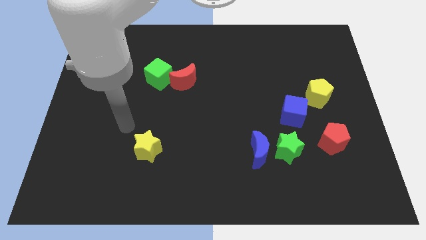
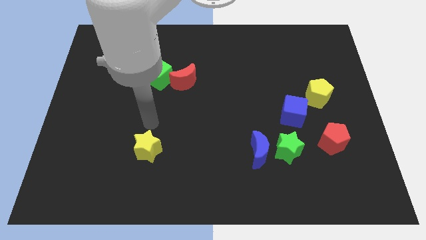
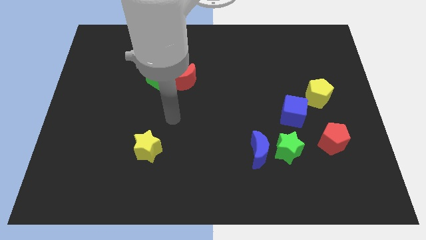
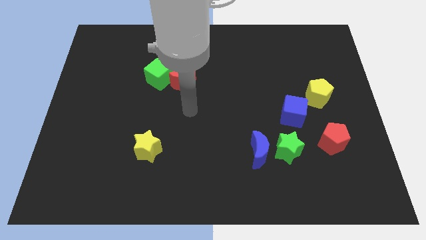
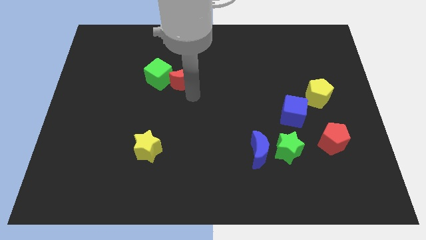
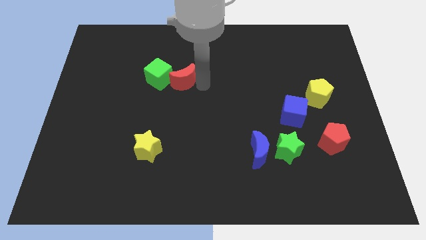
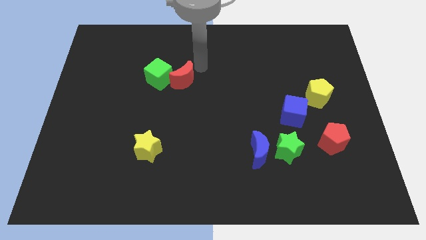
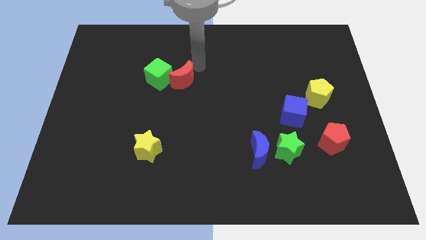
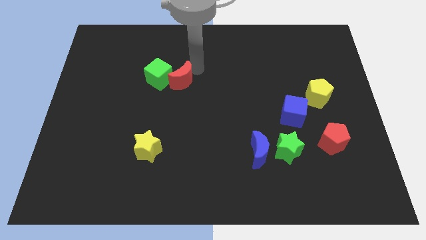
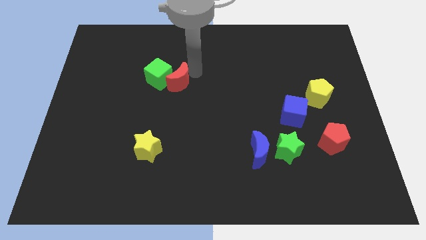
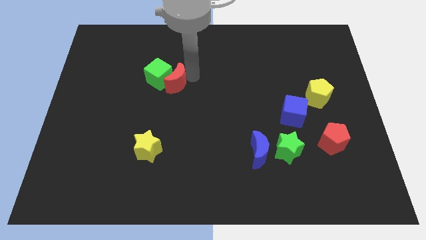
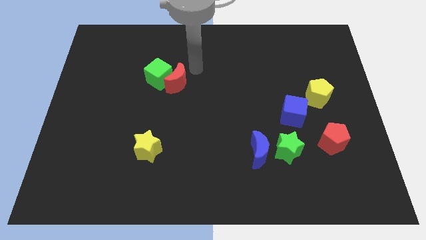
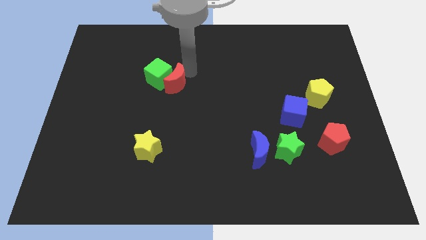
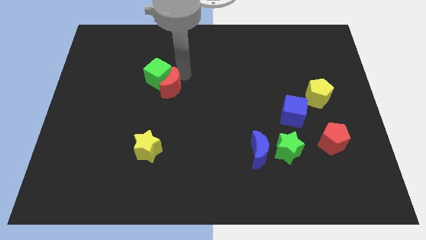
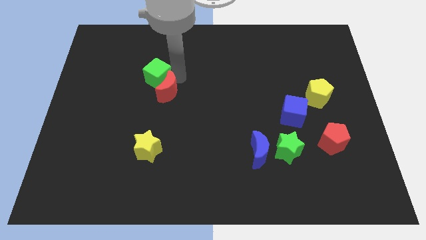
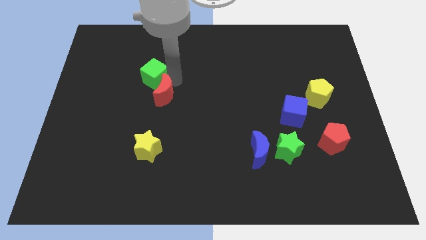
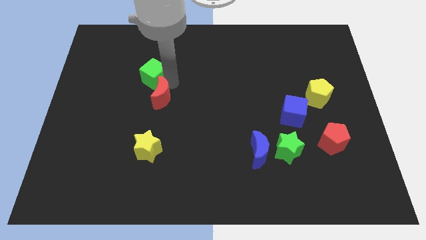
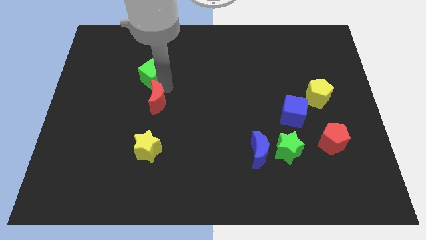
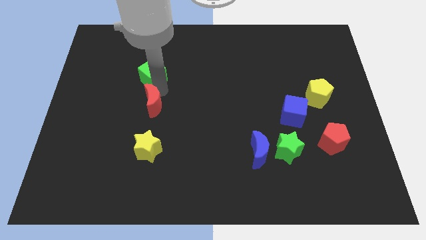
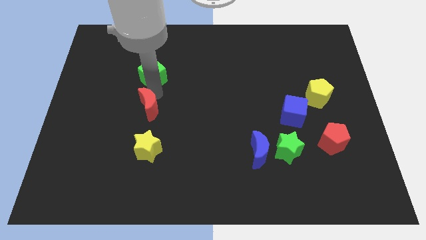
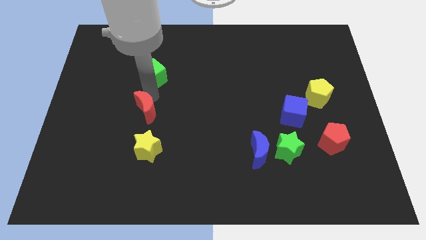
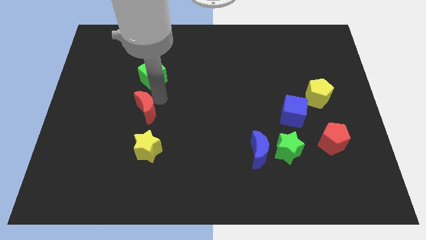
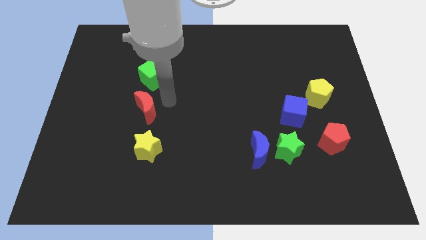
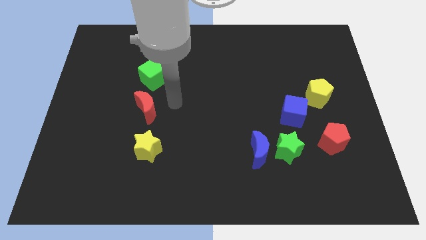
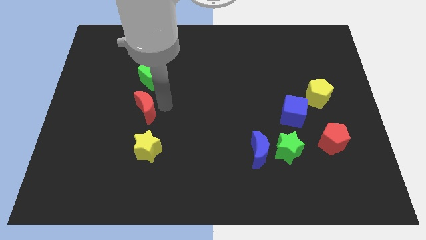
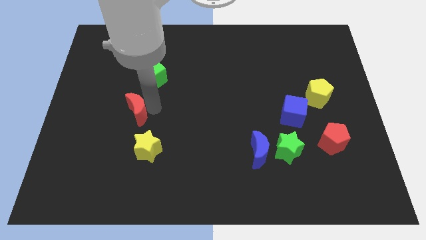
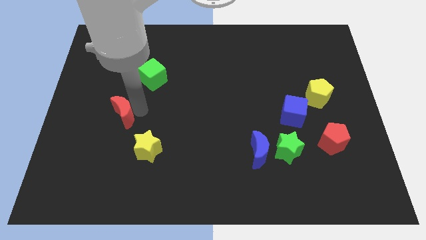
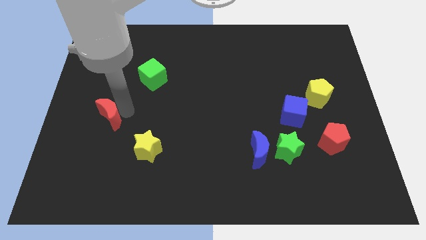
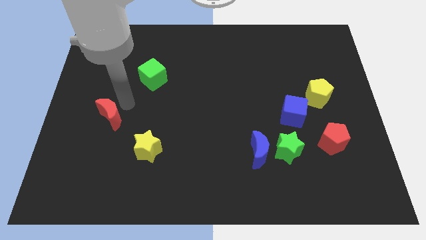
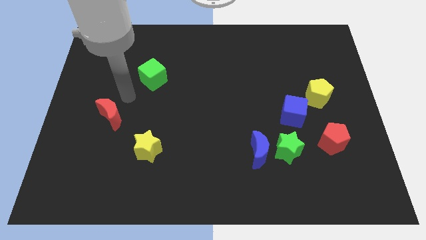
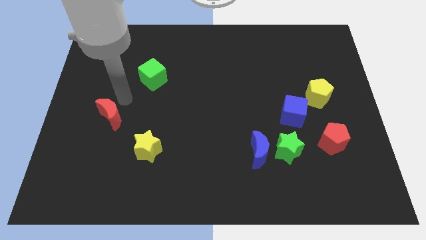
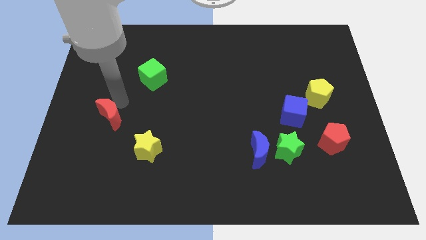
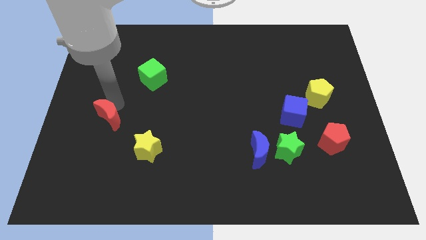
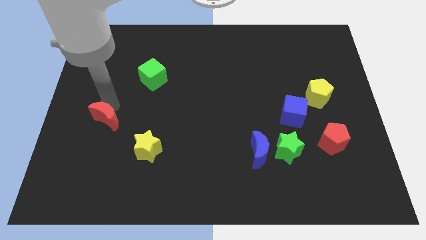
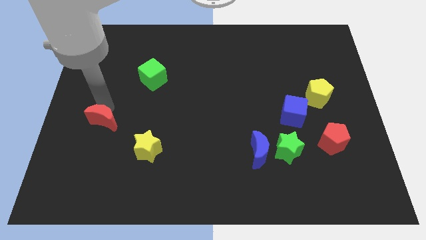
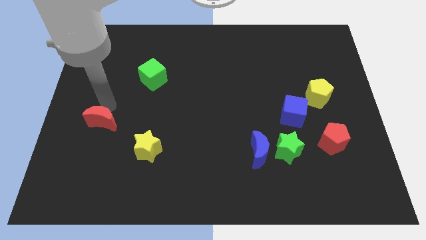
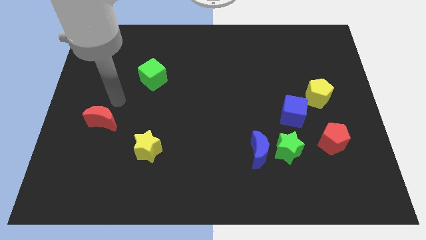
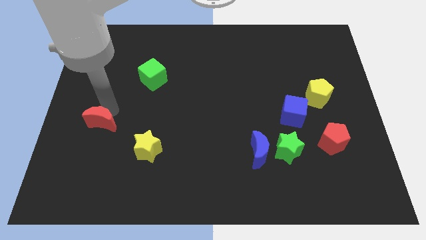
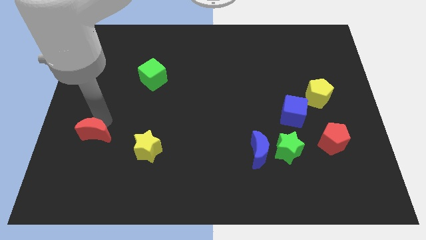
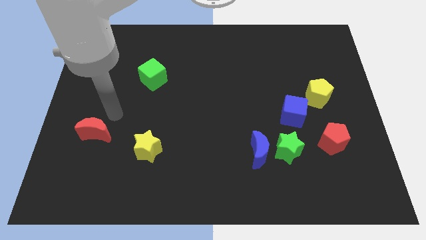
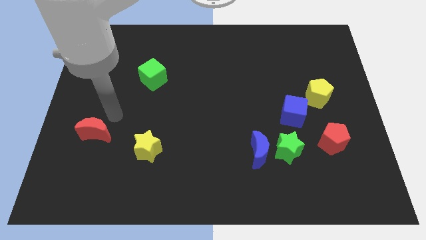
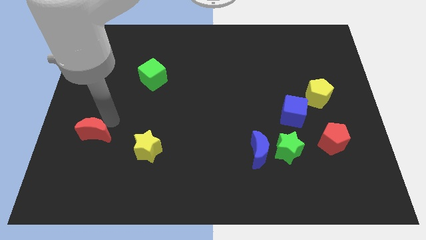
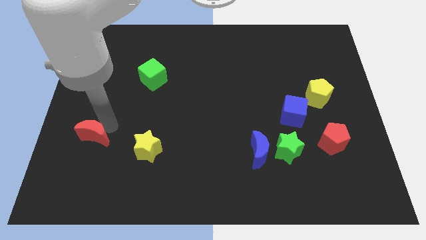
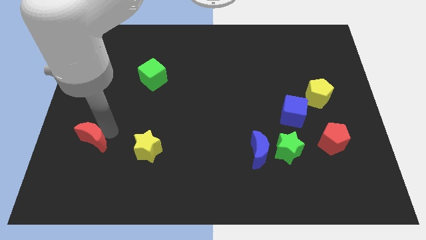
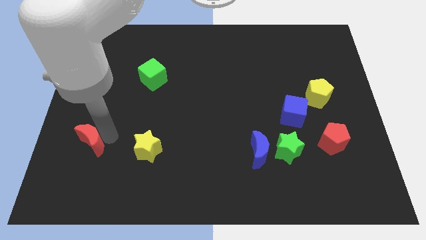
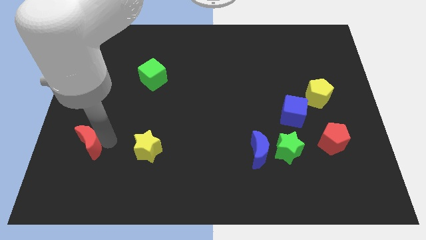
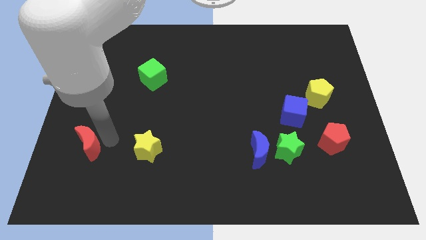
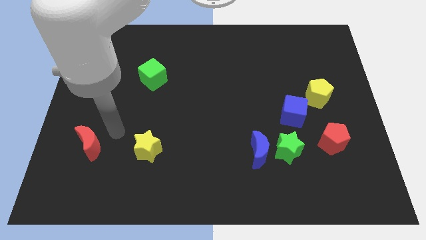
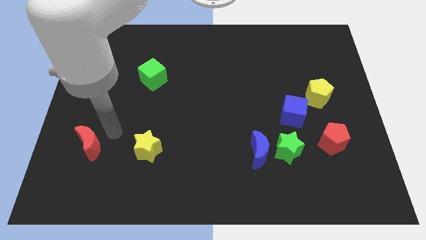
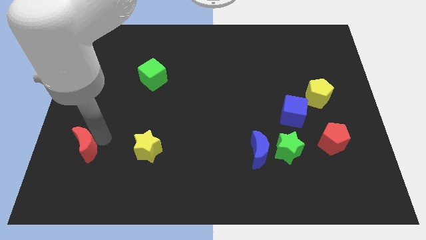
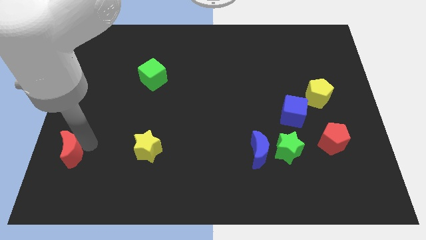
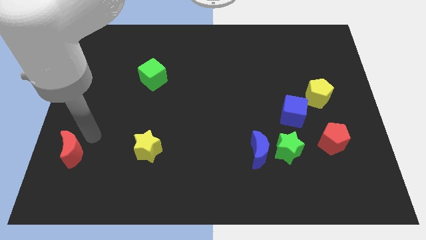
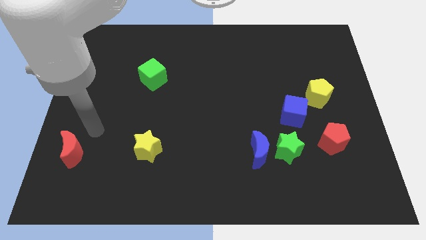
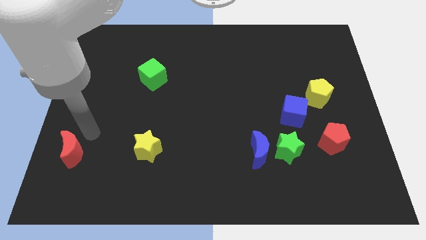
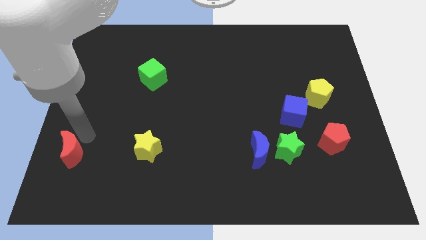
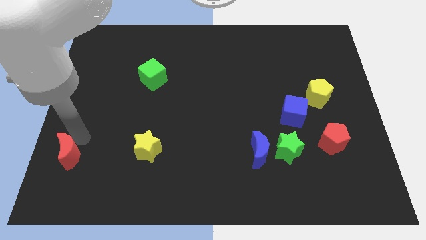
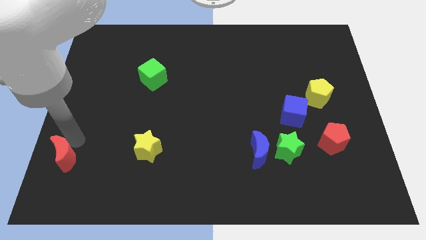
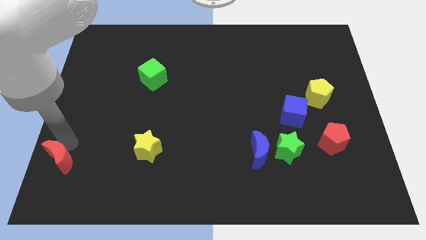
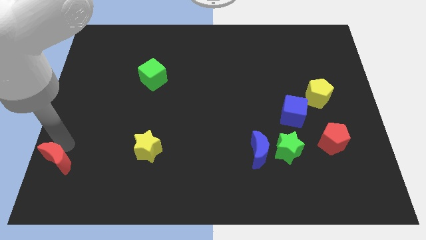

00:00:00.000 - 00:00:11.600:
push the red moon to the bottom left of the board
